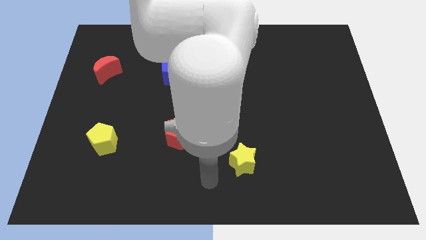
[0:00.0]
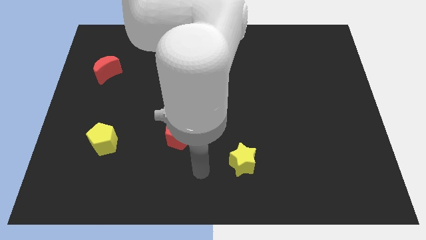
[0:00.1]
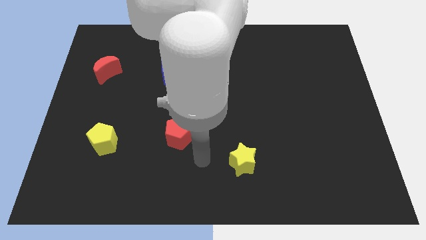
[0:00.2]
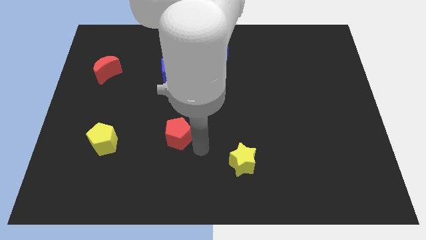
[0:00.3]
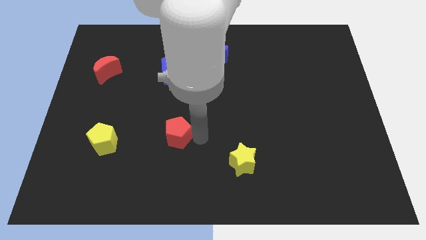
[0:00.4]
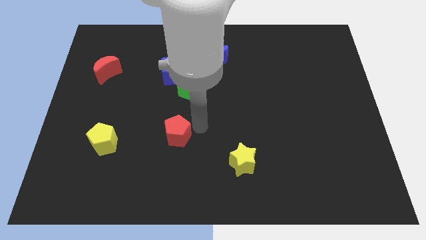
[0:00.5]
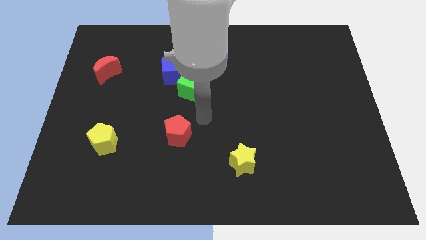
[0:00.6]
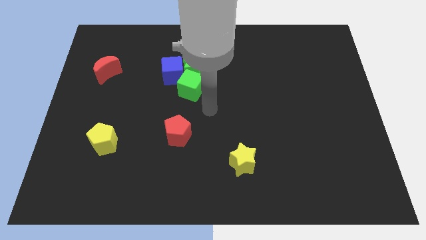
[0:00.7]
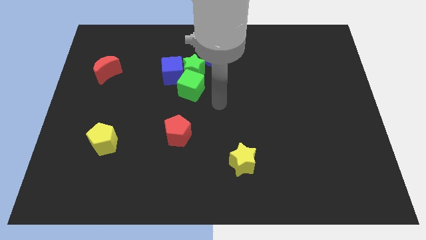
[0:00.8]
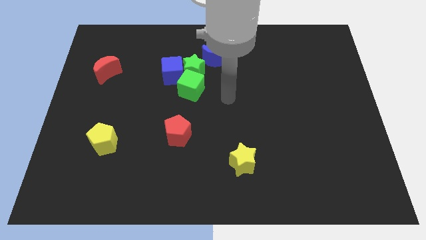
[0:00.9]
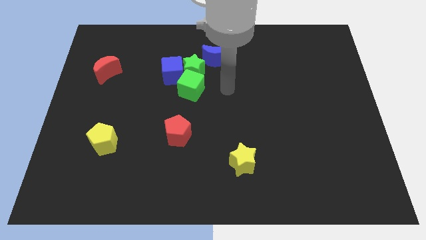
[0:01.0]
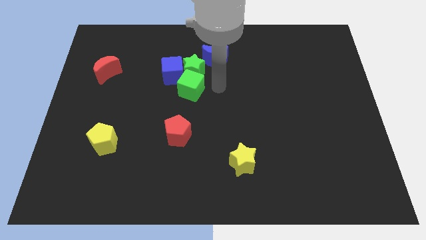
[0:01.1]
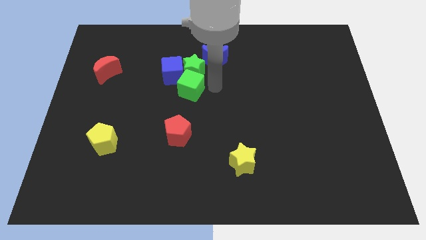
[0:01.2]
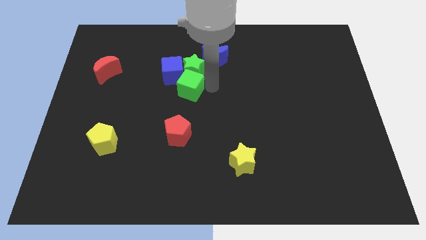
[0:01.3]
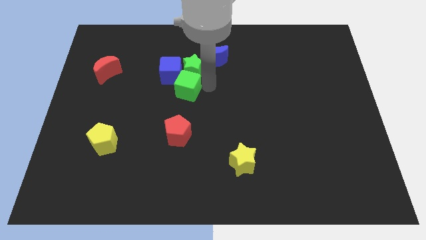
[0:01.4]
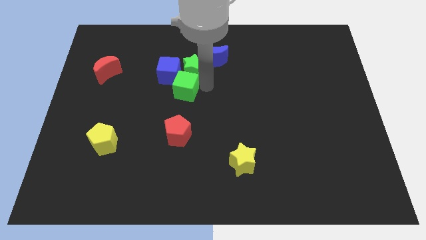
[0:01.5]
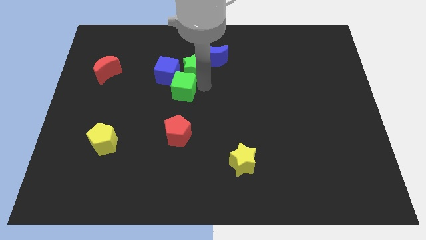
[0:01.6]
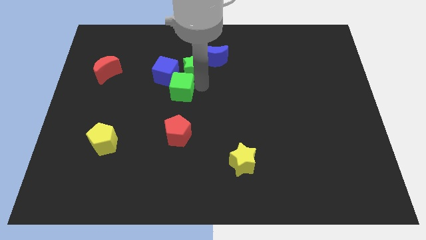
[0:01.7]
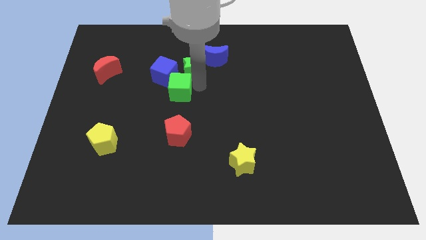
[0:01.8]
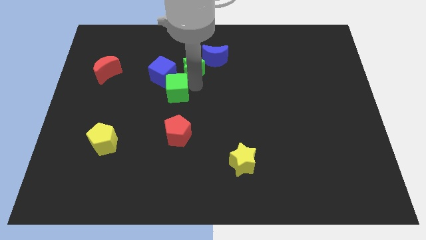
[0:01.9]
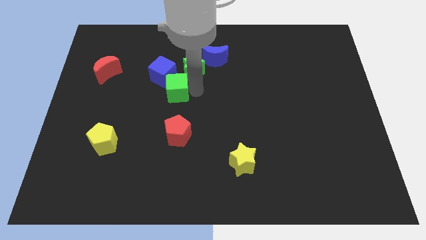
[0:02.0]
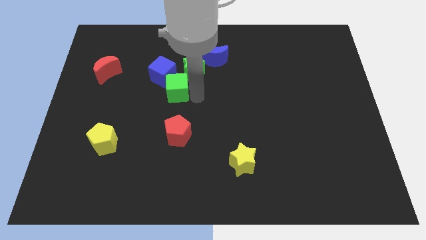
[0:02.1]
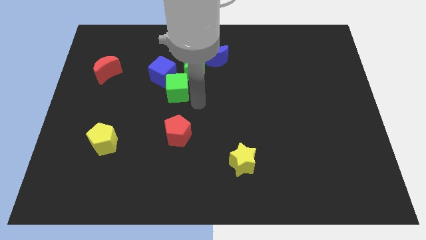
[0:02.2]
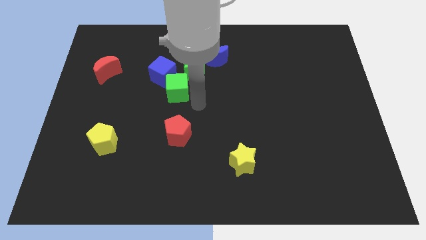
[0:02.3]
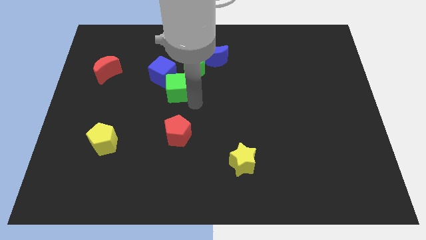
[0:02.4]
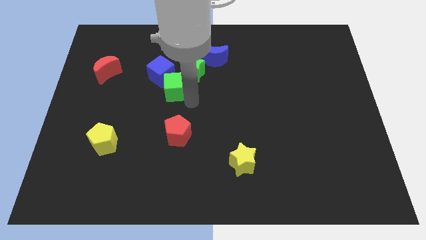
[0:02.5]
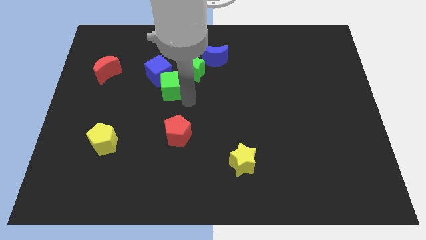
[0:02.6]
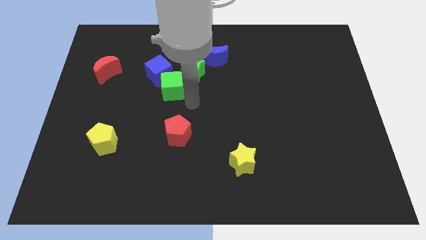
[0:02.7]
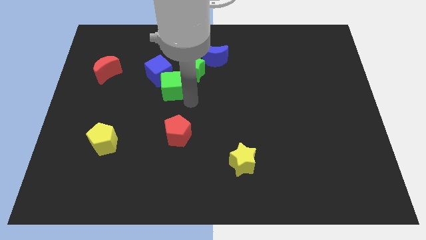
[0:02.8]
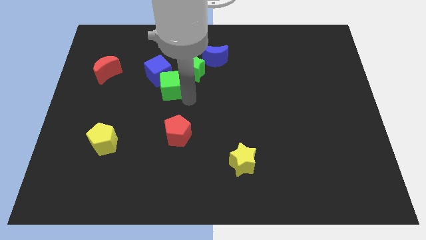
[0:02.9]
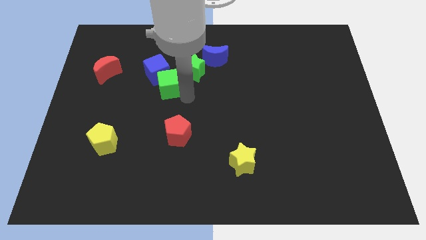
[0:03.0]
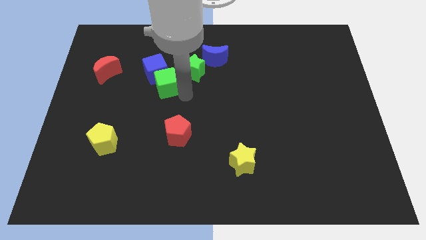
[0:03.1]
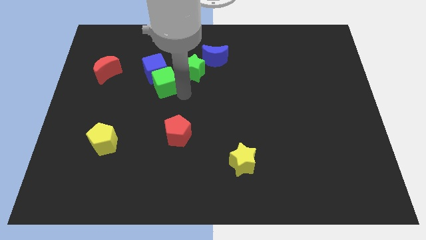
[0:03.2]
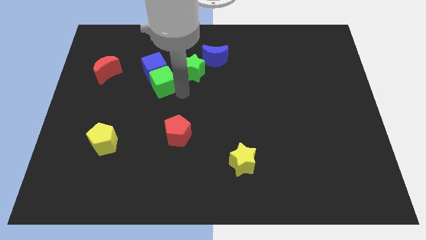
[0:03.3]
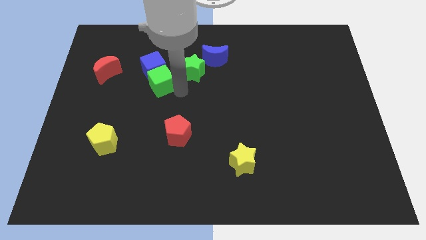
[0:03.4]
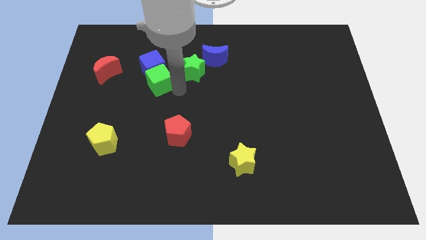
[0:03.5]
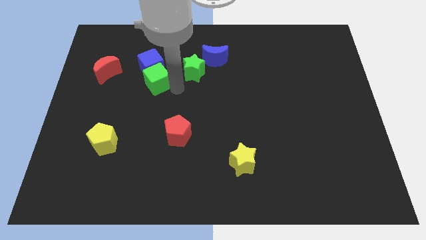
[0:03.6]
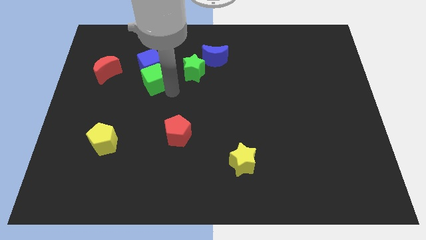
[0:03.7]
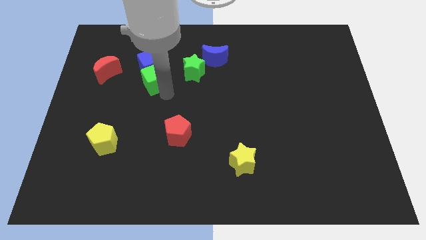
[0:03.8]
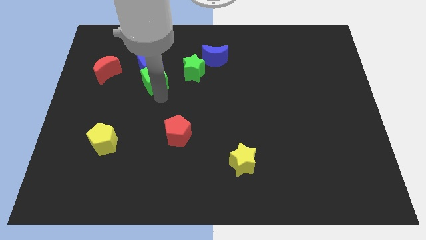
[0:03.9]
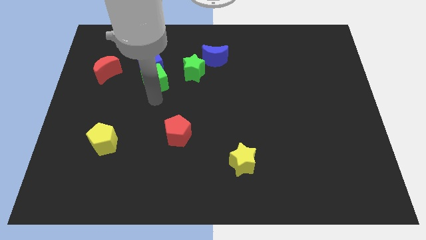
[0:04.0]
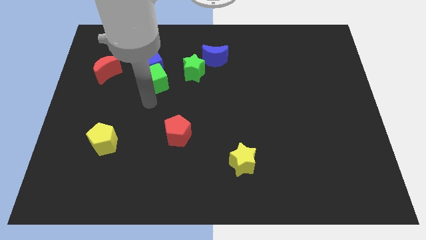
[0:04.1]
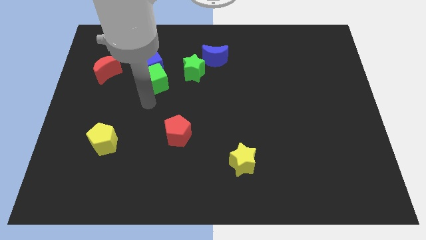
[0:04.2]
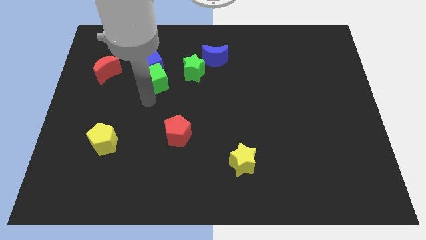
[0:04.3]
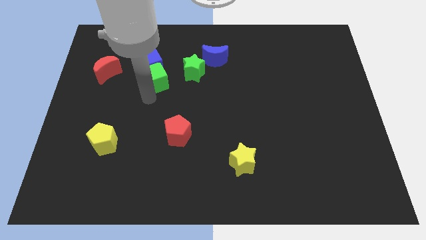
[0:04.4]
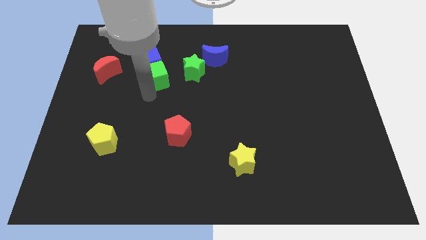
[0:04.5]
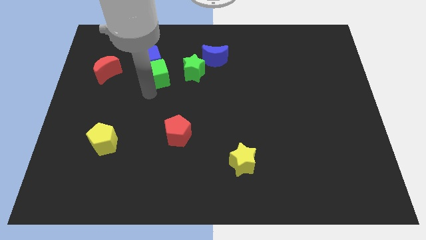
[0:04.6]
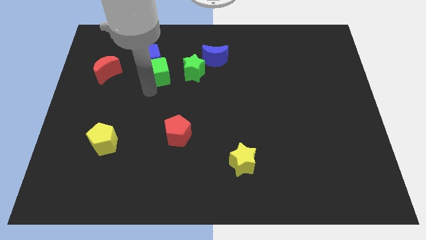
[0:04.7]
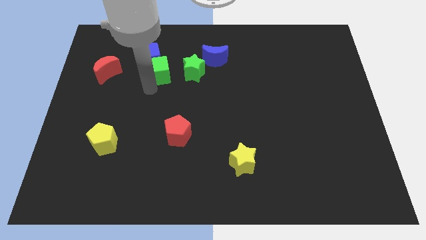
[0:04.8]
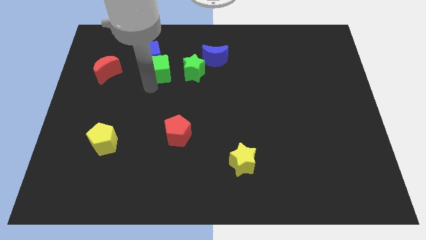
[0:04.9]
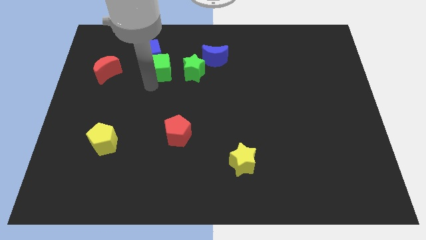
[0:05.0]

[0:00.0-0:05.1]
slide the green cube just left of the blue moon

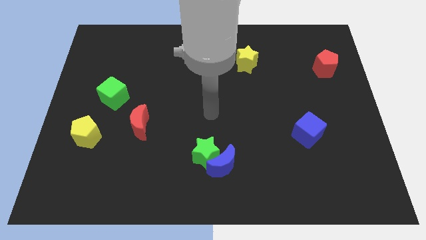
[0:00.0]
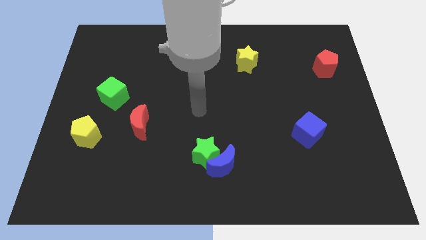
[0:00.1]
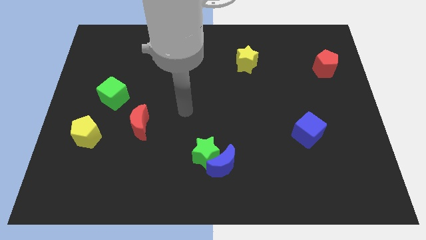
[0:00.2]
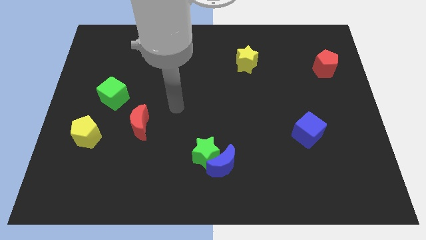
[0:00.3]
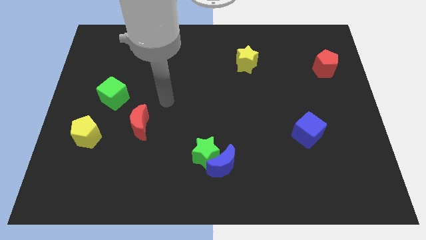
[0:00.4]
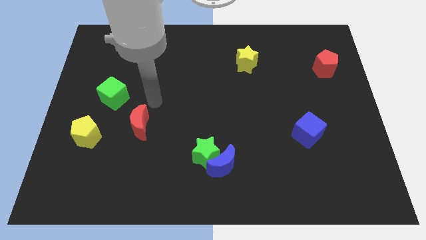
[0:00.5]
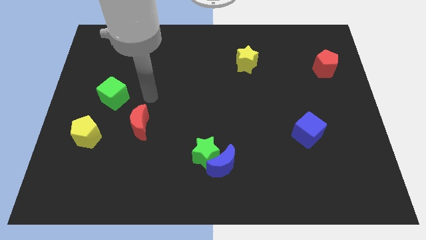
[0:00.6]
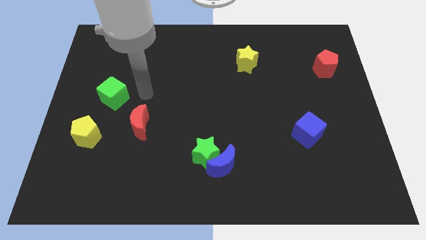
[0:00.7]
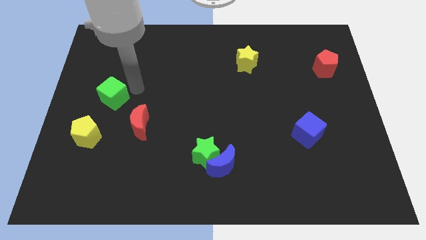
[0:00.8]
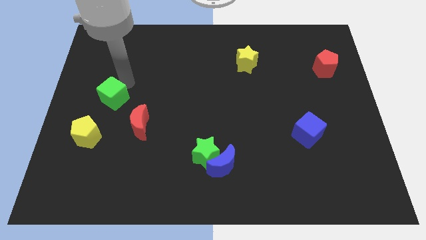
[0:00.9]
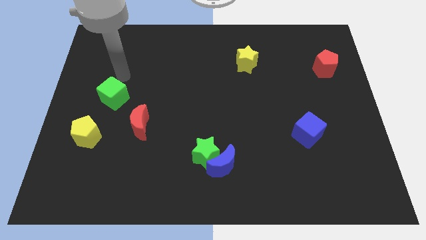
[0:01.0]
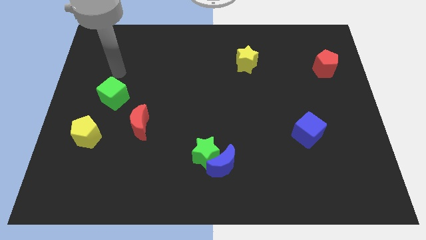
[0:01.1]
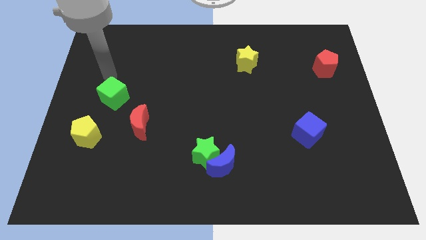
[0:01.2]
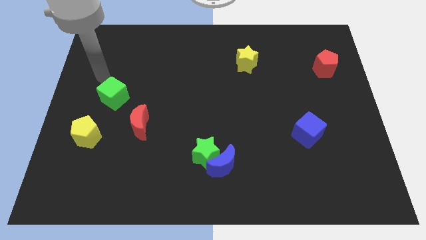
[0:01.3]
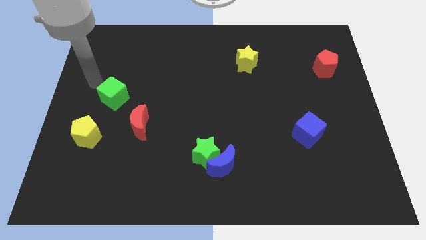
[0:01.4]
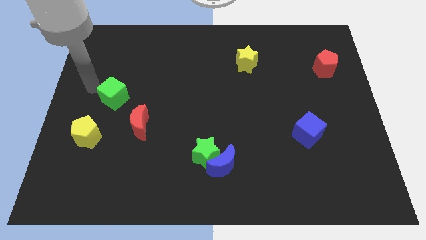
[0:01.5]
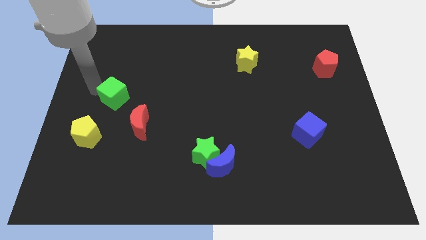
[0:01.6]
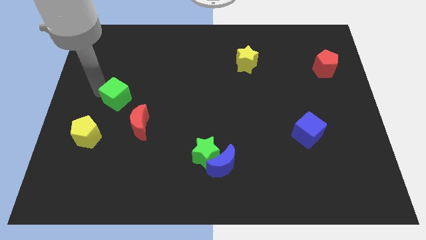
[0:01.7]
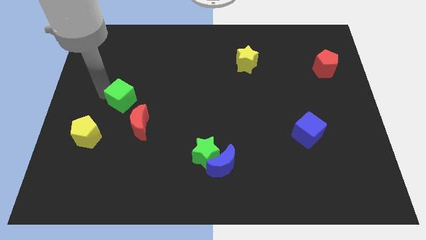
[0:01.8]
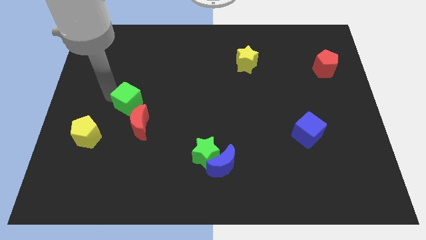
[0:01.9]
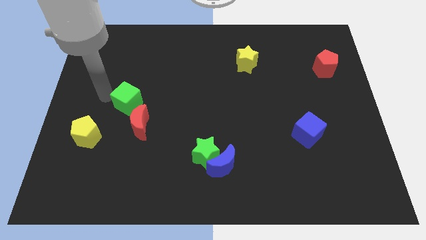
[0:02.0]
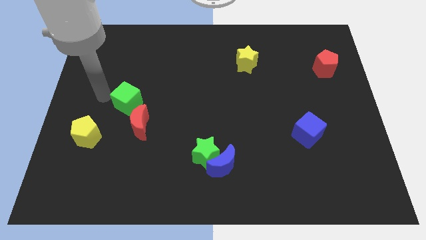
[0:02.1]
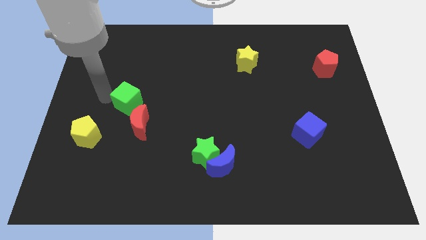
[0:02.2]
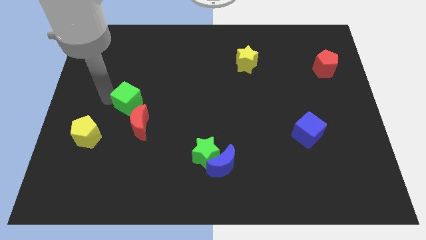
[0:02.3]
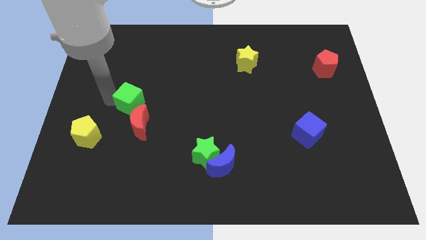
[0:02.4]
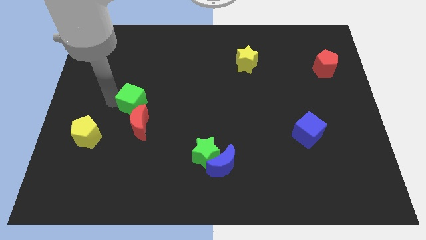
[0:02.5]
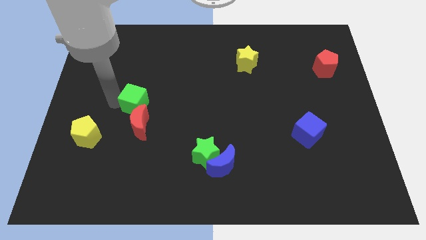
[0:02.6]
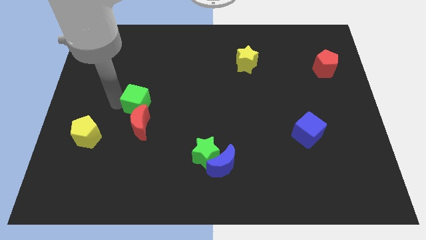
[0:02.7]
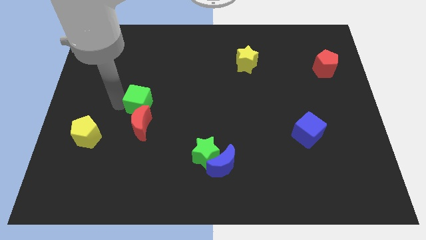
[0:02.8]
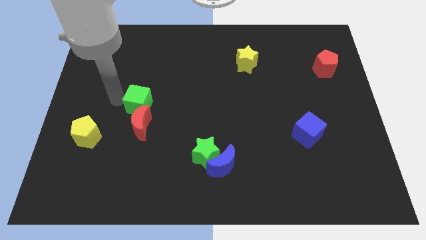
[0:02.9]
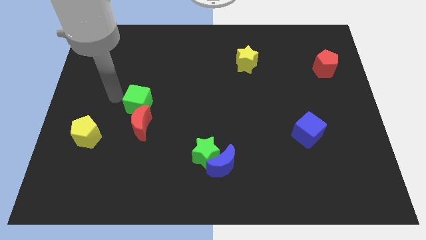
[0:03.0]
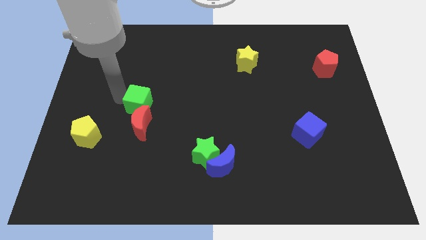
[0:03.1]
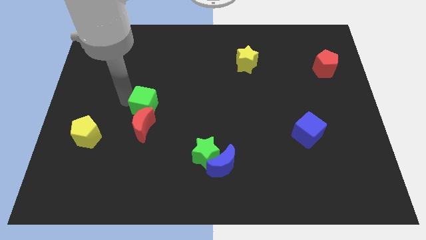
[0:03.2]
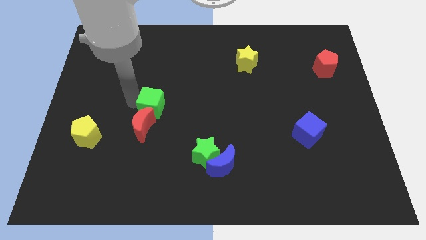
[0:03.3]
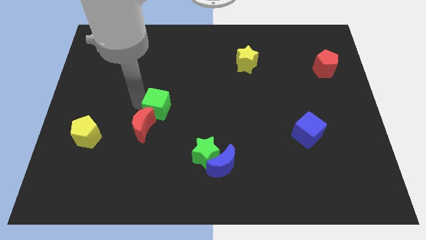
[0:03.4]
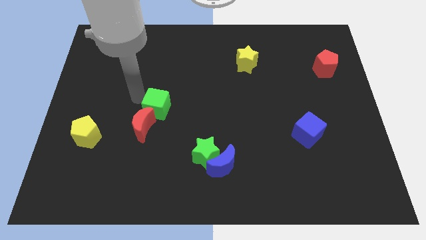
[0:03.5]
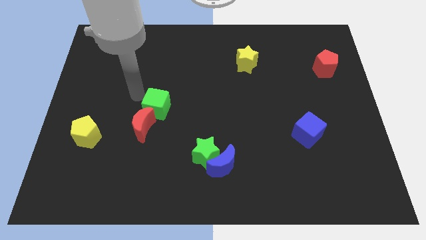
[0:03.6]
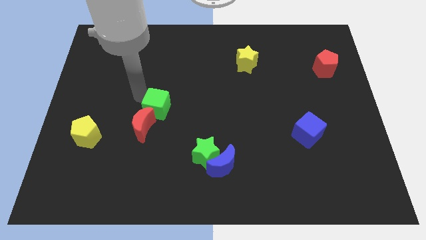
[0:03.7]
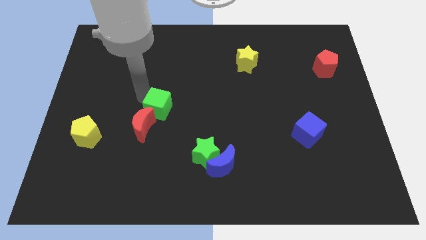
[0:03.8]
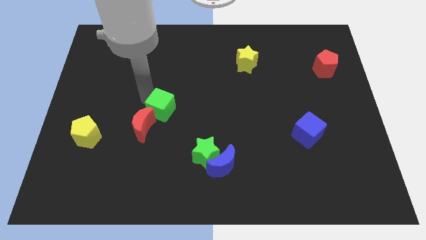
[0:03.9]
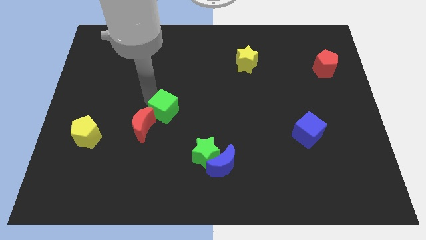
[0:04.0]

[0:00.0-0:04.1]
put the green cube just right of the red moon
